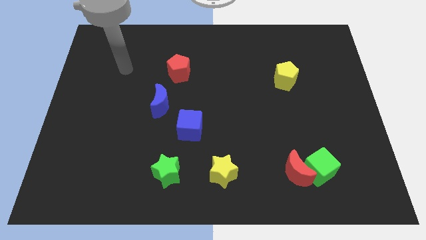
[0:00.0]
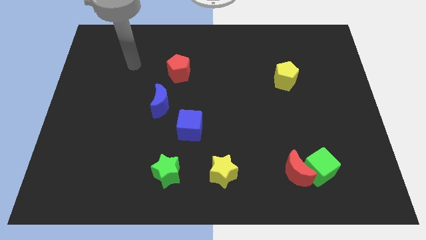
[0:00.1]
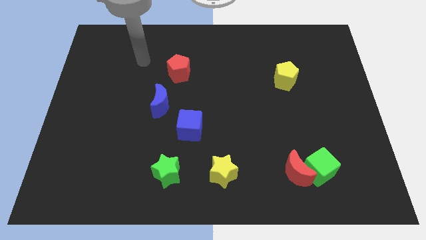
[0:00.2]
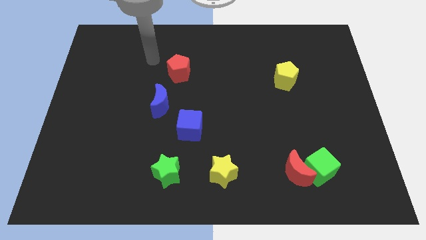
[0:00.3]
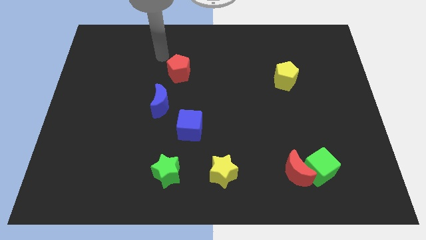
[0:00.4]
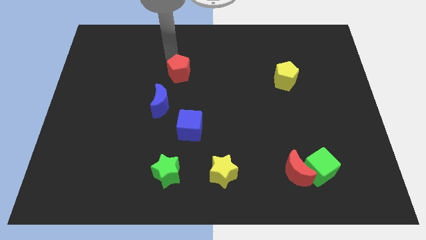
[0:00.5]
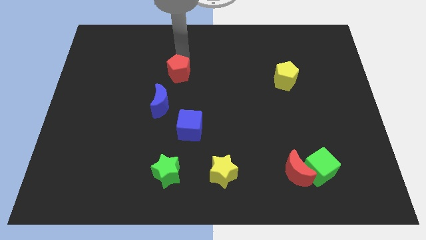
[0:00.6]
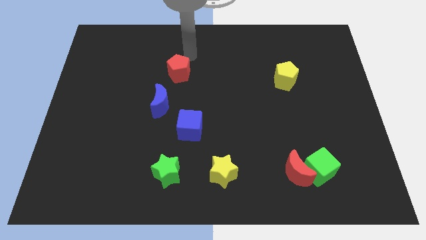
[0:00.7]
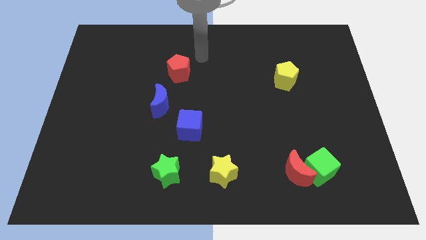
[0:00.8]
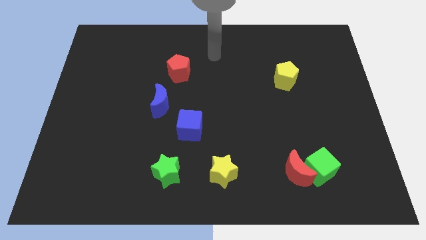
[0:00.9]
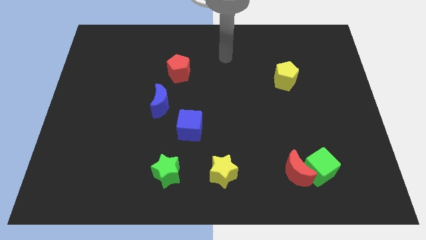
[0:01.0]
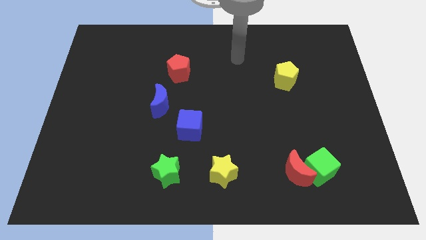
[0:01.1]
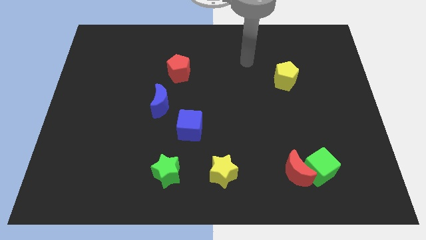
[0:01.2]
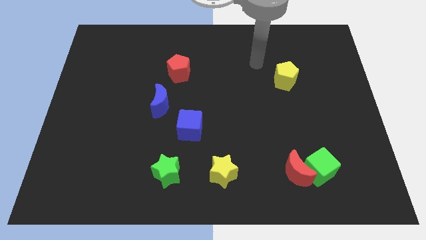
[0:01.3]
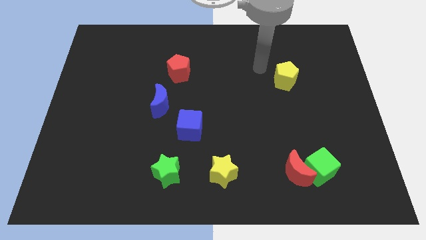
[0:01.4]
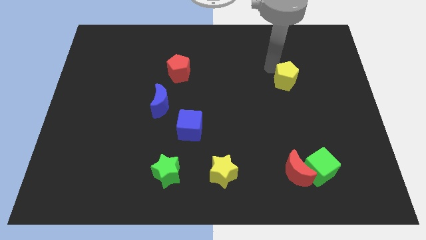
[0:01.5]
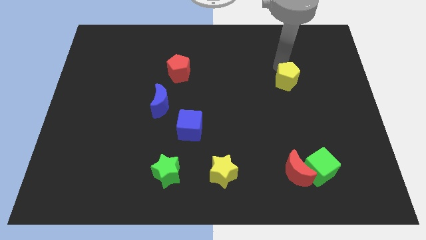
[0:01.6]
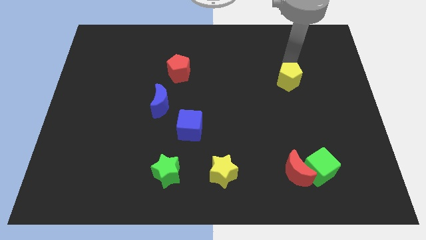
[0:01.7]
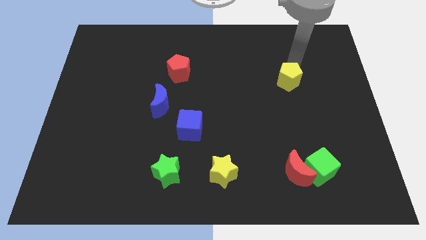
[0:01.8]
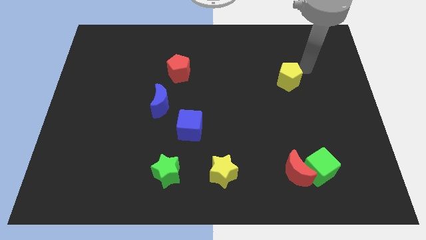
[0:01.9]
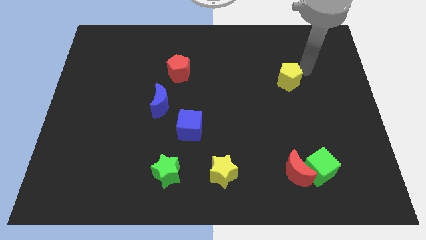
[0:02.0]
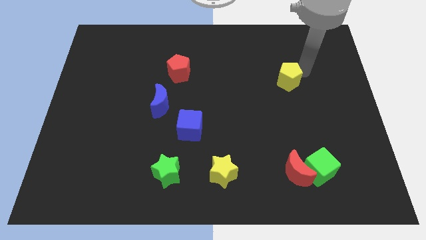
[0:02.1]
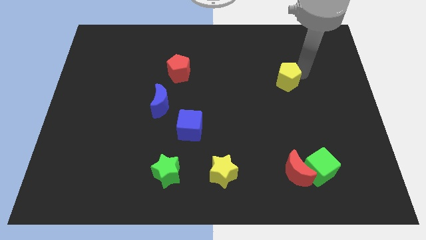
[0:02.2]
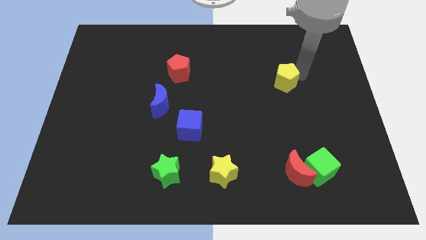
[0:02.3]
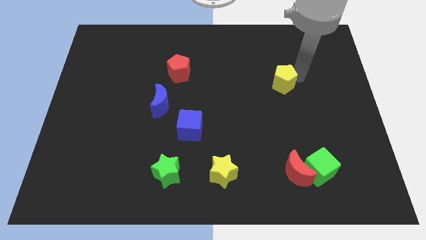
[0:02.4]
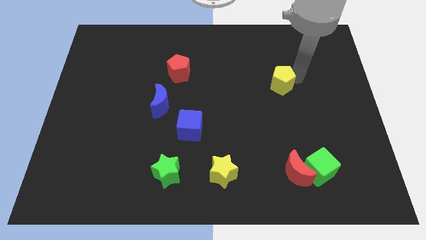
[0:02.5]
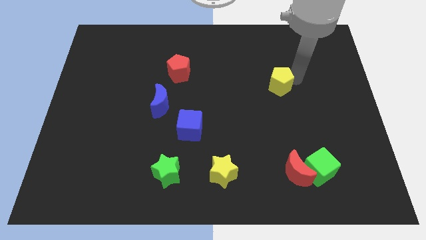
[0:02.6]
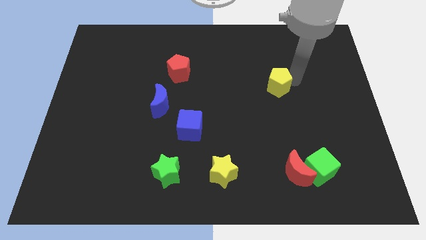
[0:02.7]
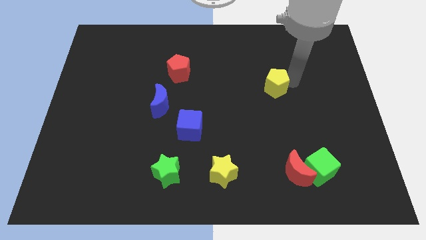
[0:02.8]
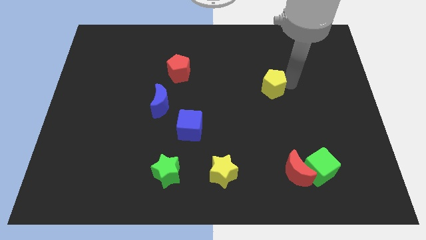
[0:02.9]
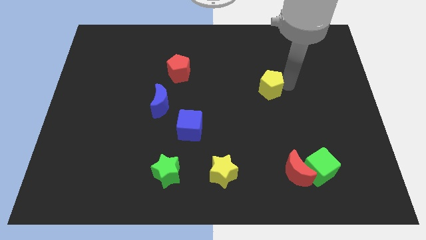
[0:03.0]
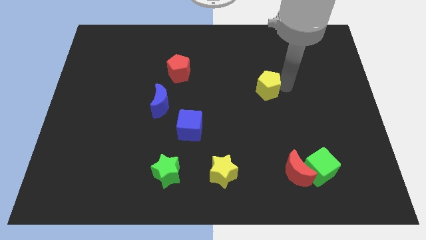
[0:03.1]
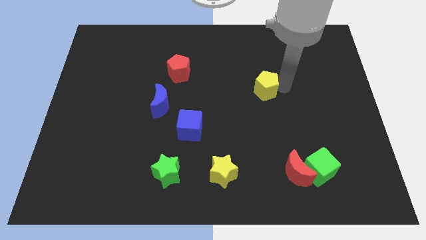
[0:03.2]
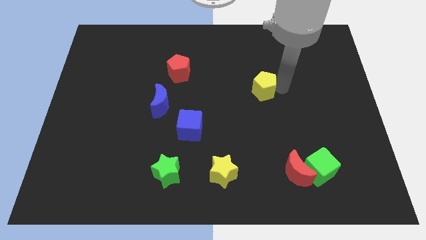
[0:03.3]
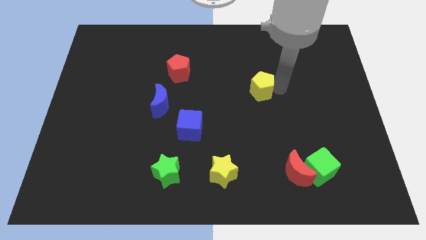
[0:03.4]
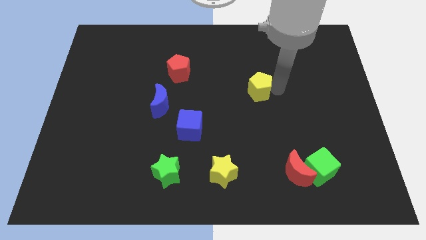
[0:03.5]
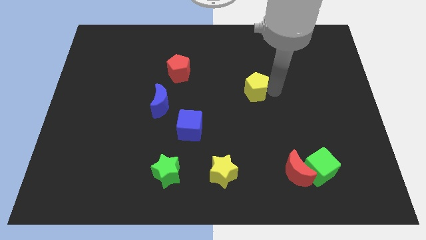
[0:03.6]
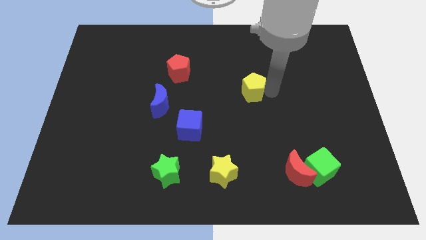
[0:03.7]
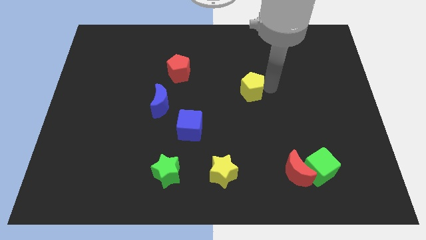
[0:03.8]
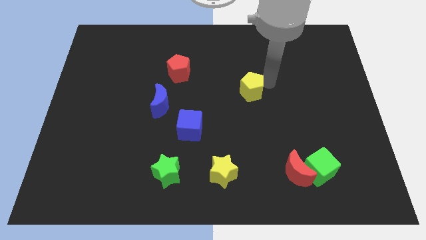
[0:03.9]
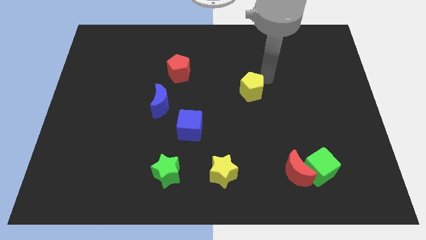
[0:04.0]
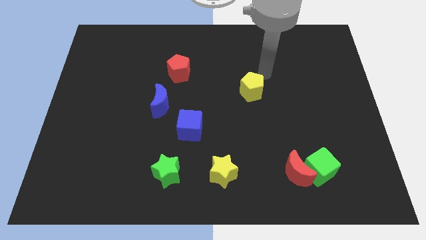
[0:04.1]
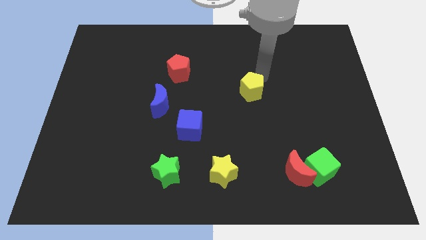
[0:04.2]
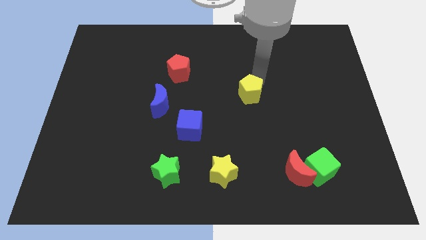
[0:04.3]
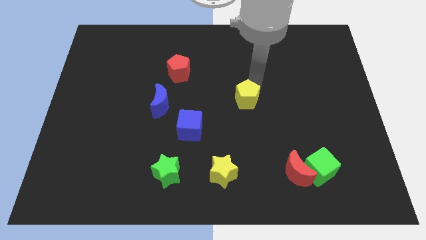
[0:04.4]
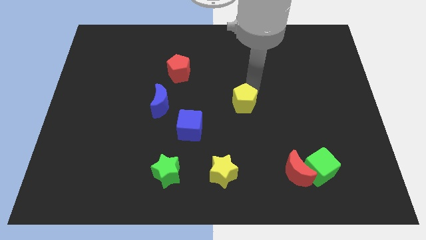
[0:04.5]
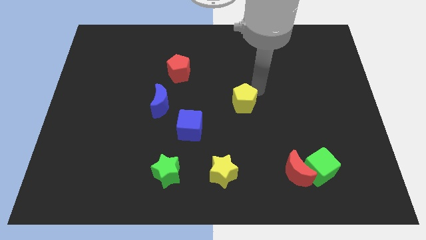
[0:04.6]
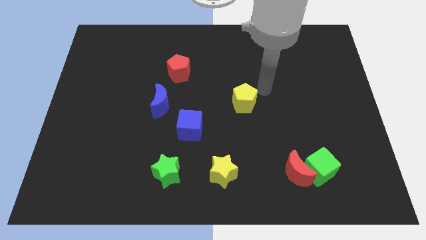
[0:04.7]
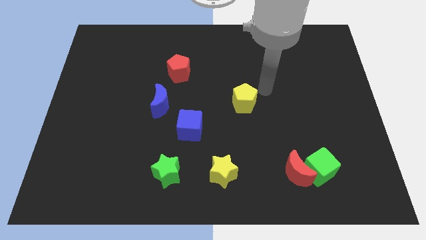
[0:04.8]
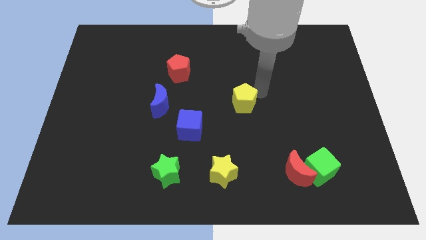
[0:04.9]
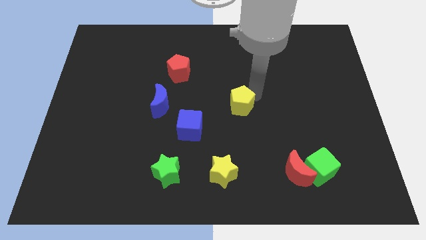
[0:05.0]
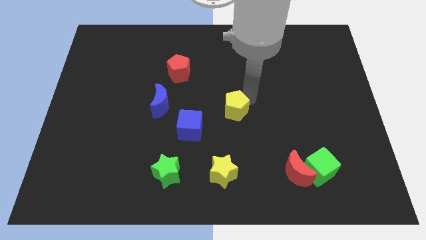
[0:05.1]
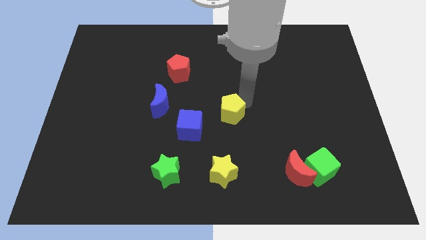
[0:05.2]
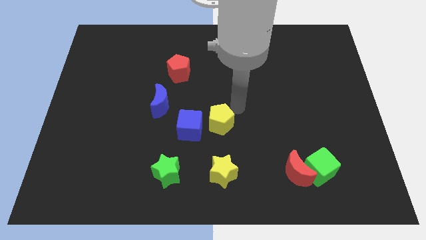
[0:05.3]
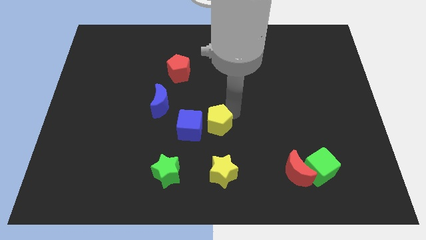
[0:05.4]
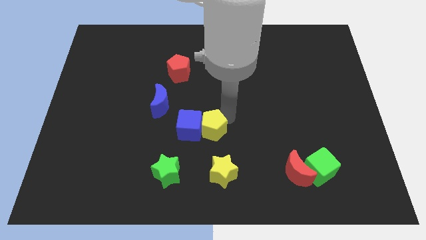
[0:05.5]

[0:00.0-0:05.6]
move the yellow pentagon next to the blue cube

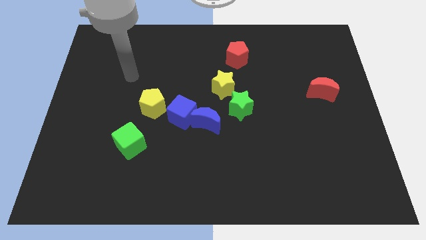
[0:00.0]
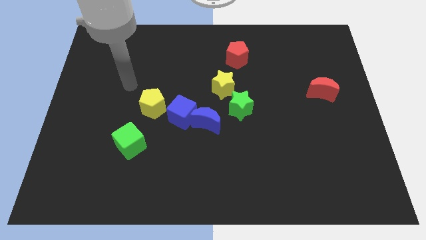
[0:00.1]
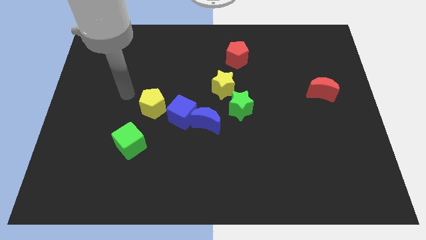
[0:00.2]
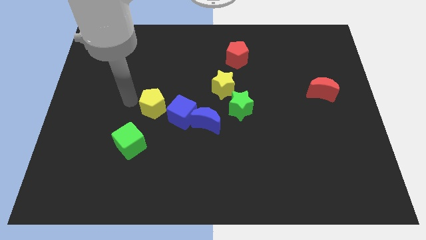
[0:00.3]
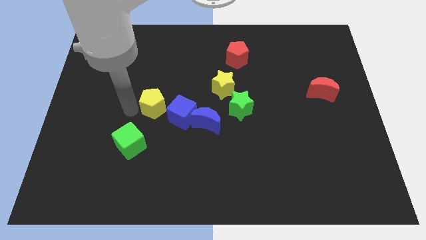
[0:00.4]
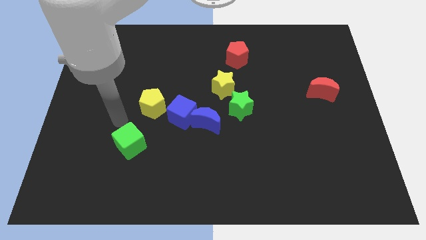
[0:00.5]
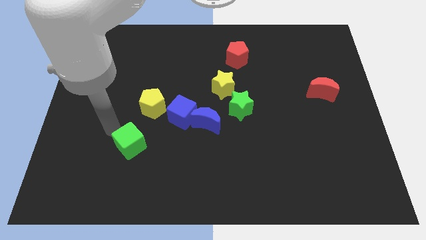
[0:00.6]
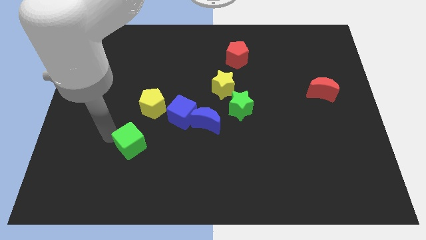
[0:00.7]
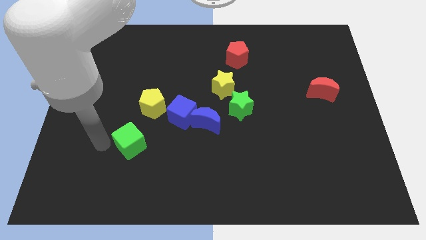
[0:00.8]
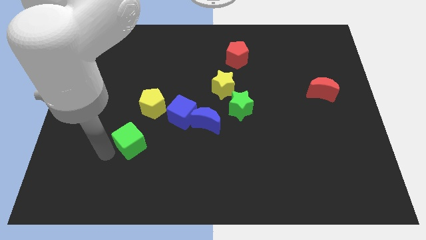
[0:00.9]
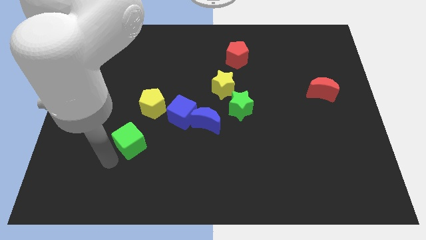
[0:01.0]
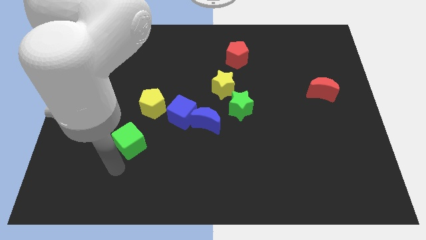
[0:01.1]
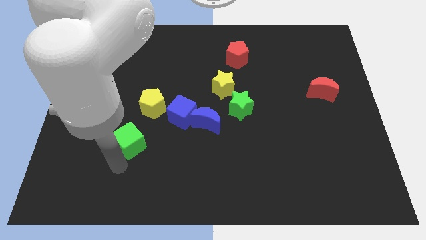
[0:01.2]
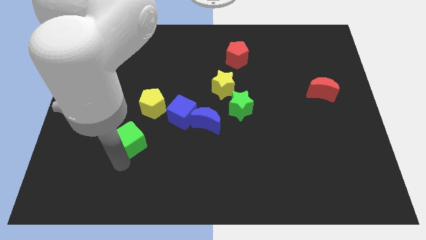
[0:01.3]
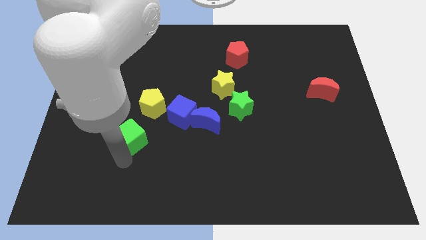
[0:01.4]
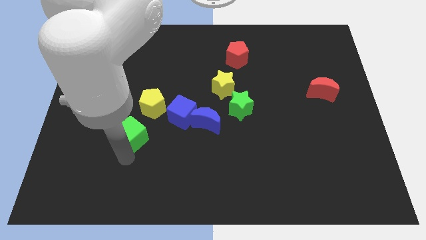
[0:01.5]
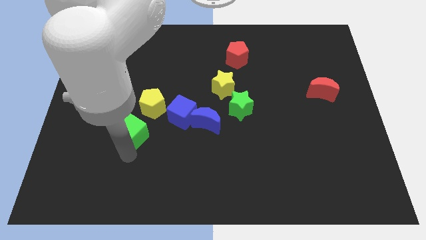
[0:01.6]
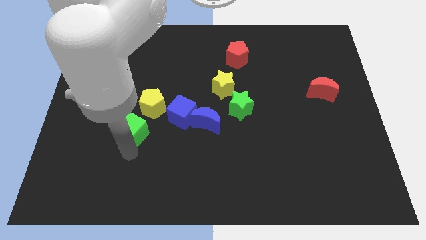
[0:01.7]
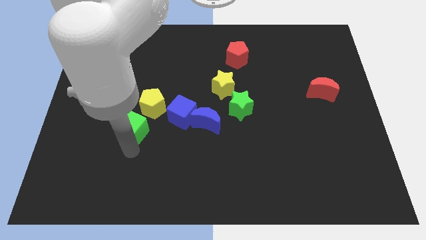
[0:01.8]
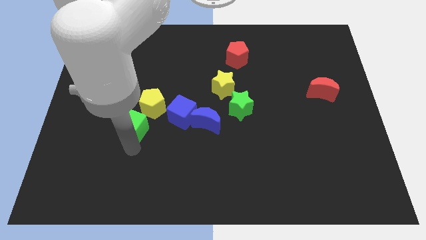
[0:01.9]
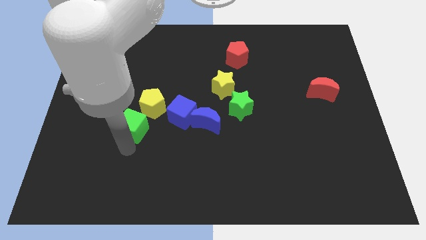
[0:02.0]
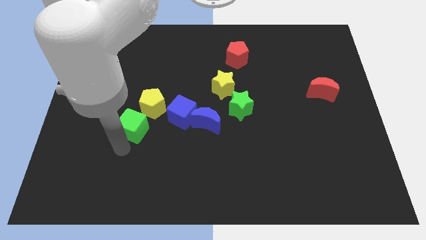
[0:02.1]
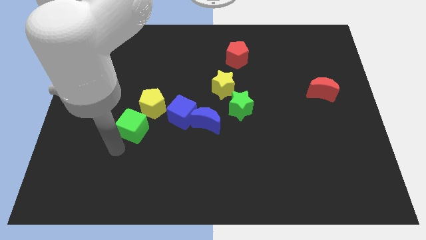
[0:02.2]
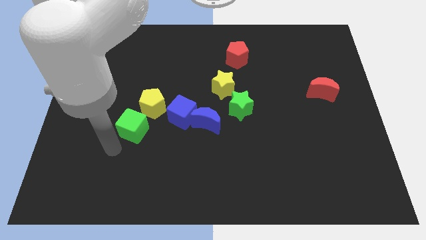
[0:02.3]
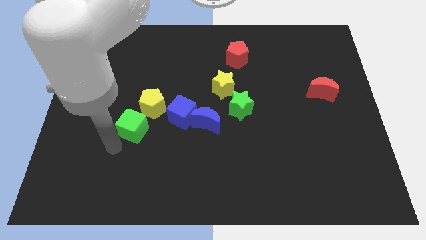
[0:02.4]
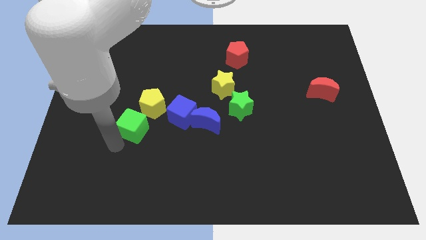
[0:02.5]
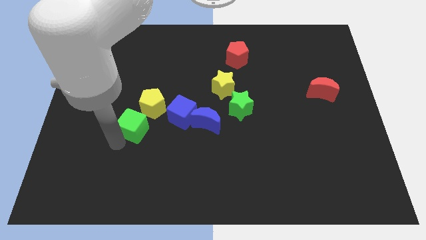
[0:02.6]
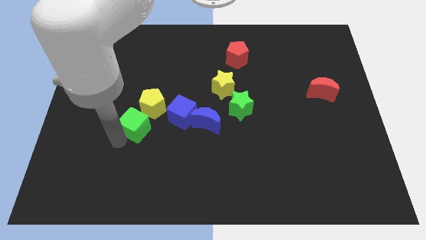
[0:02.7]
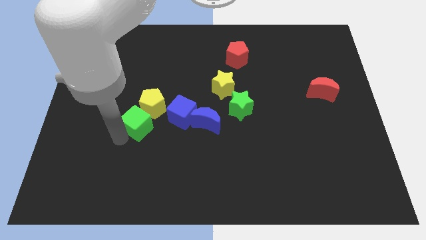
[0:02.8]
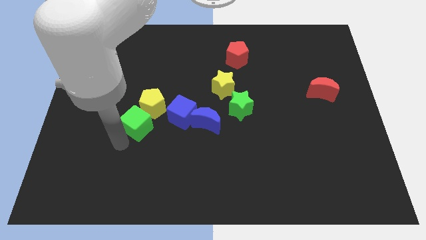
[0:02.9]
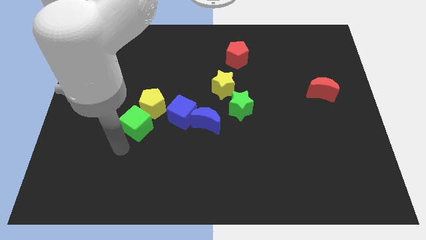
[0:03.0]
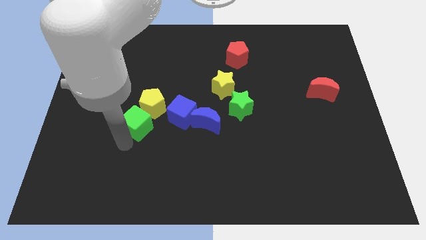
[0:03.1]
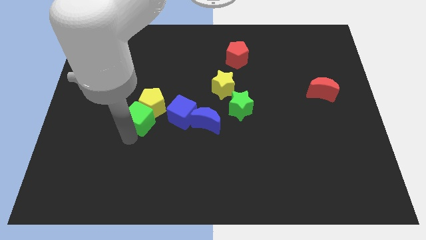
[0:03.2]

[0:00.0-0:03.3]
push the green cube next to the yellow pentagon
